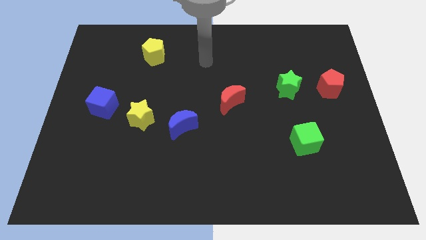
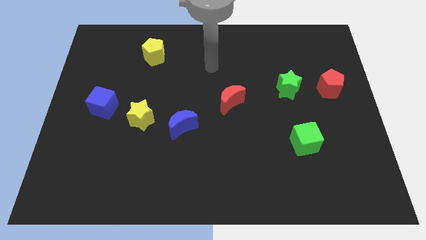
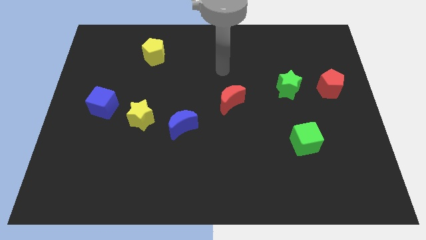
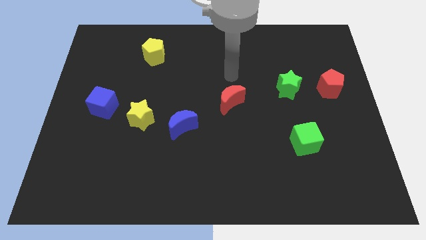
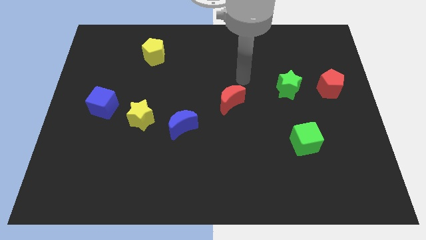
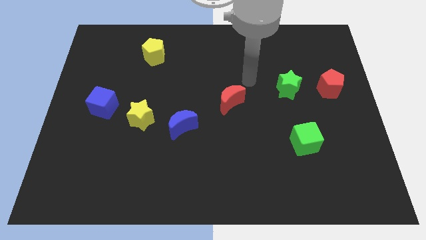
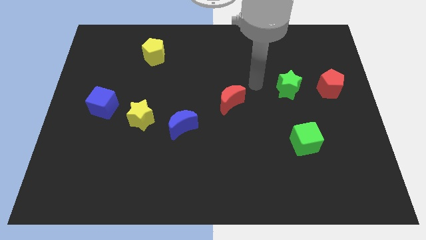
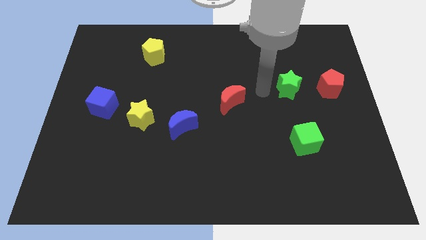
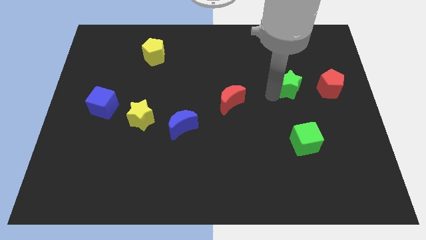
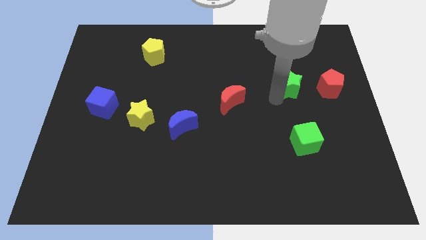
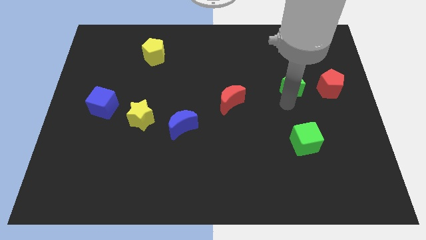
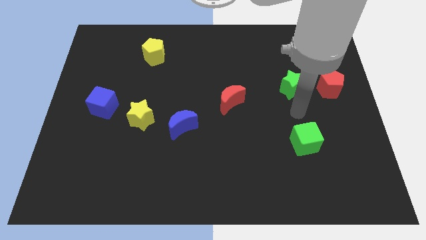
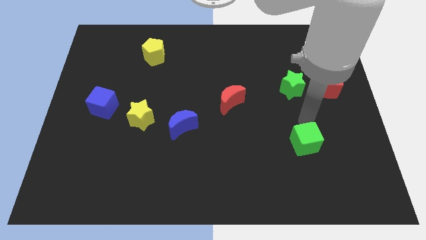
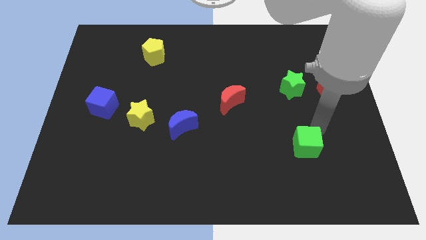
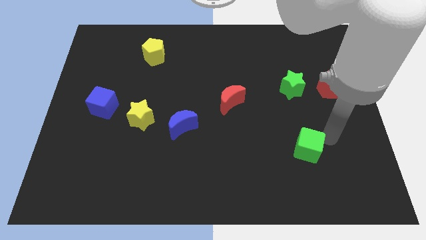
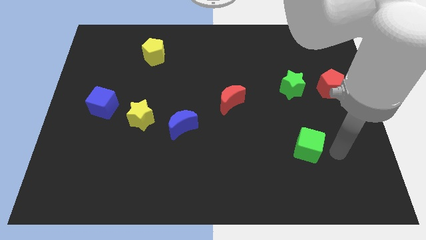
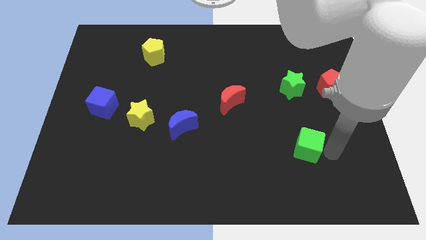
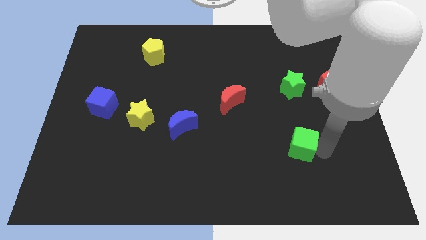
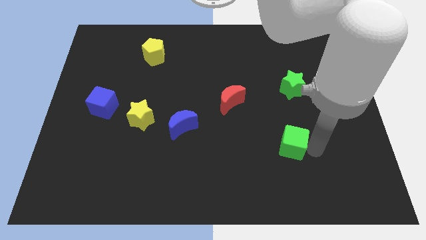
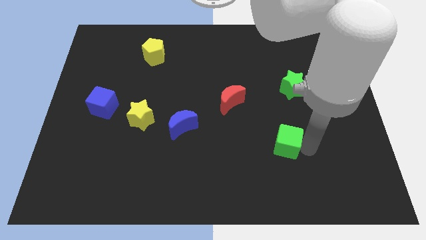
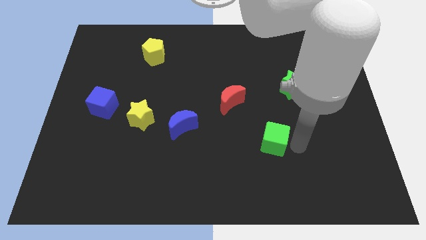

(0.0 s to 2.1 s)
slide the green cube a little to the left

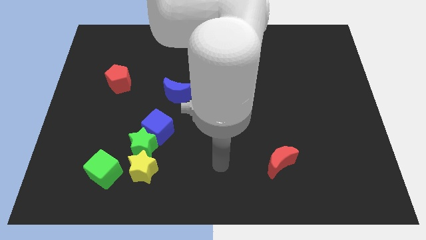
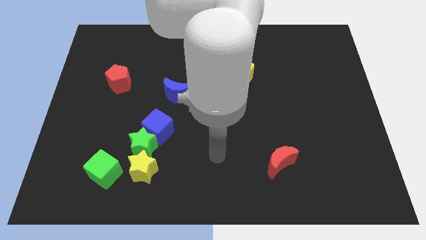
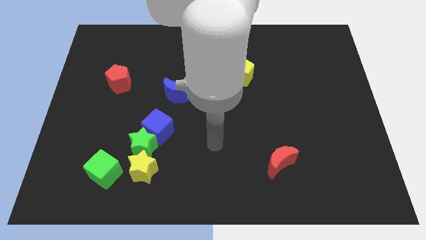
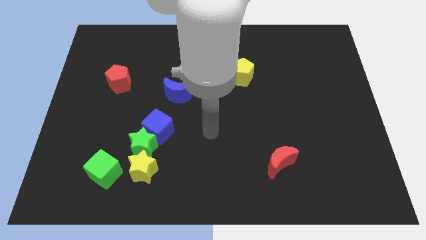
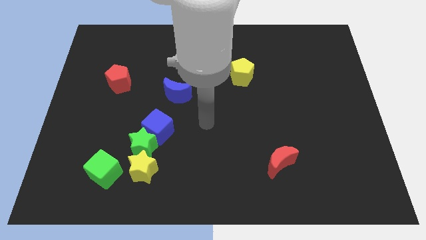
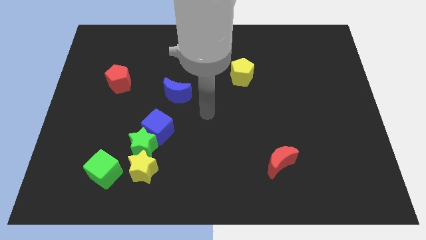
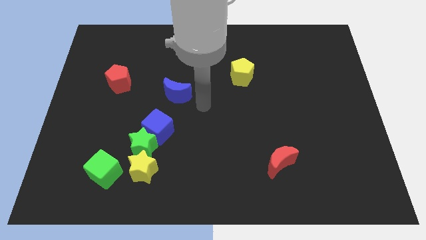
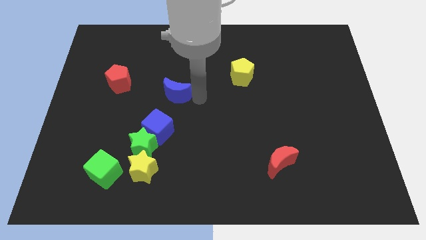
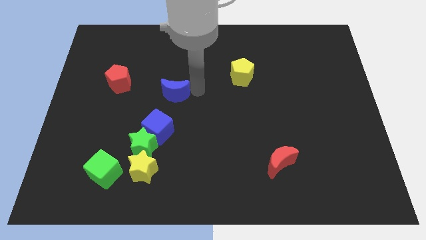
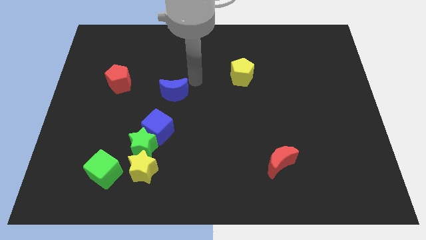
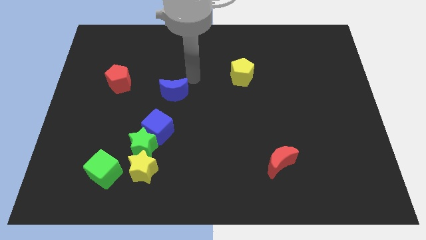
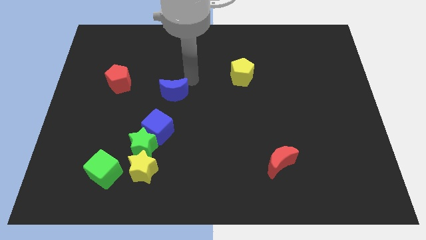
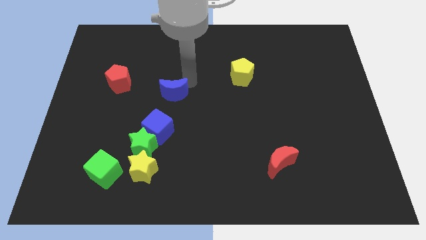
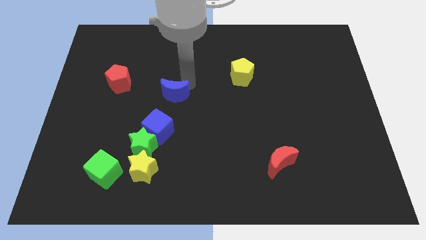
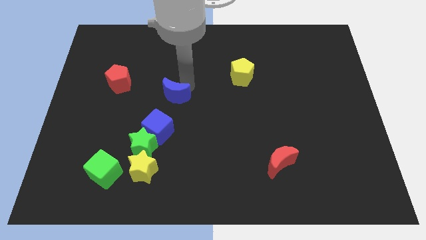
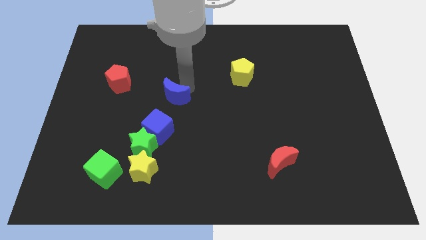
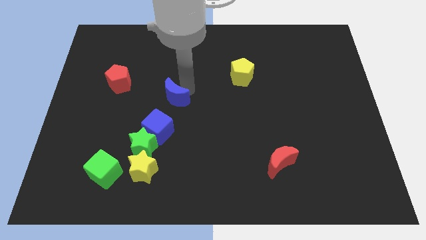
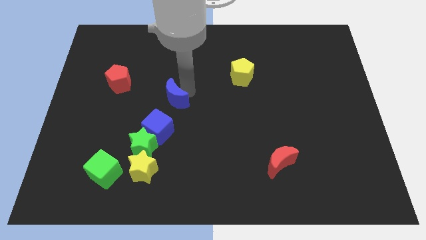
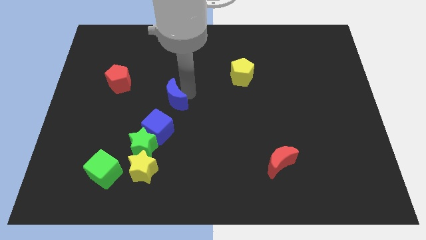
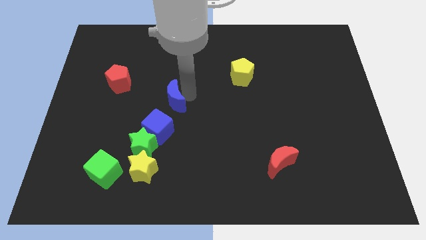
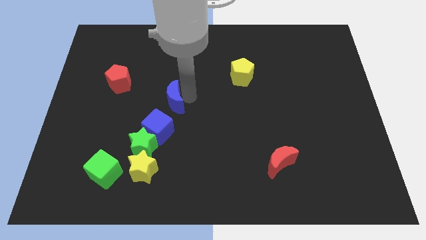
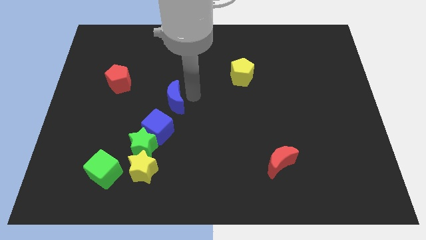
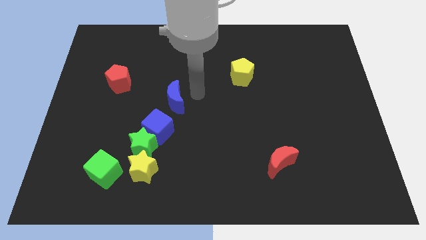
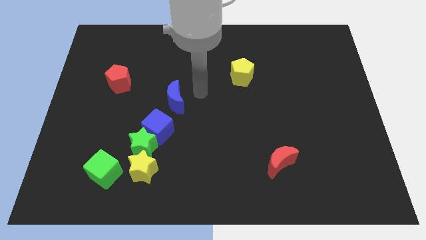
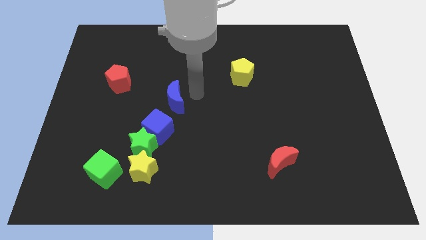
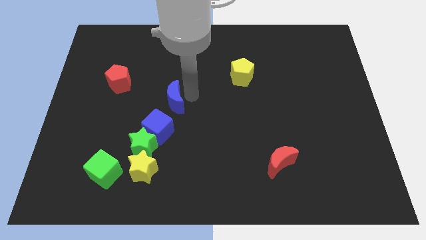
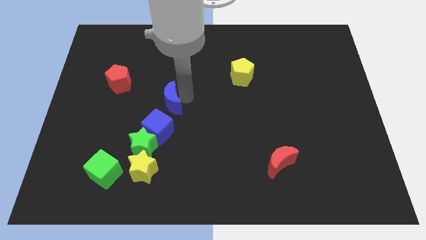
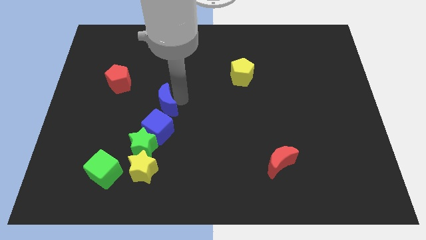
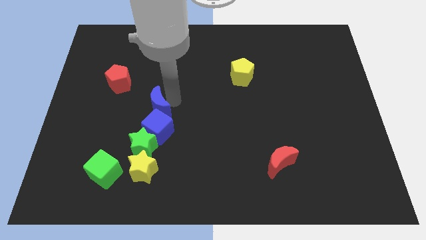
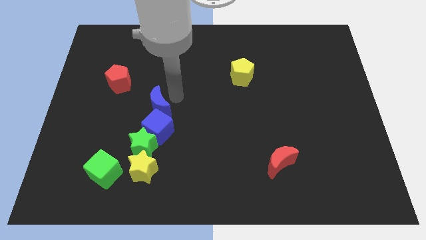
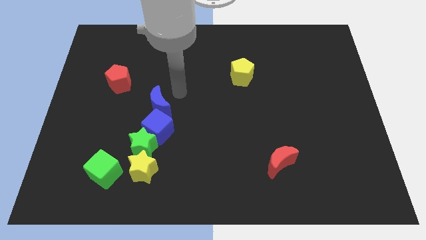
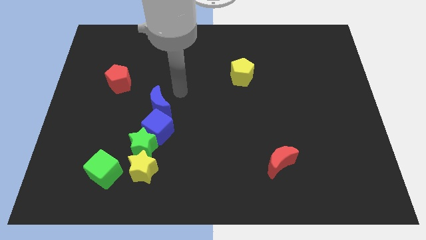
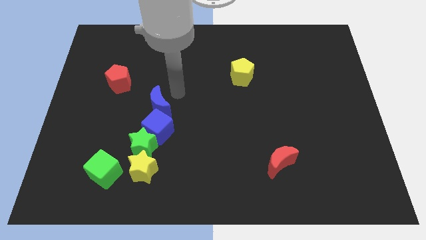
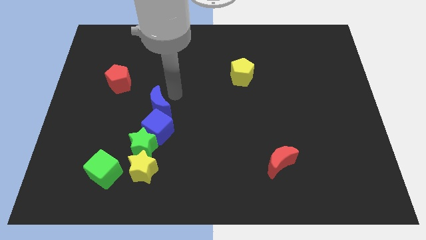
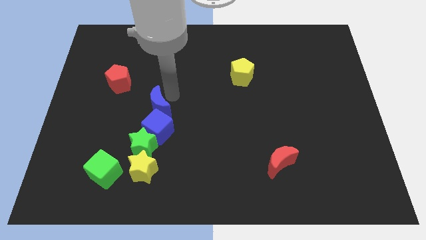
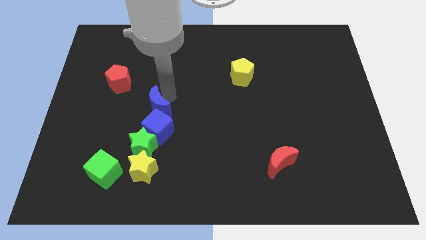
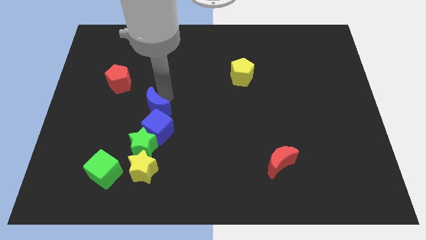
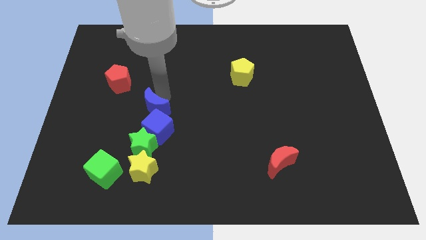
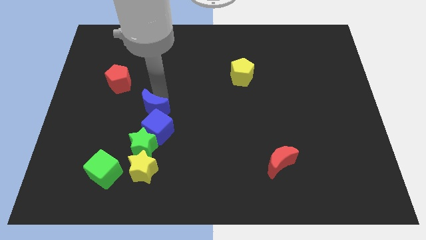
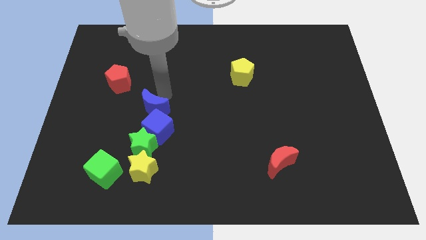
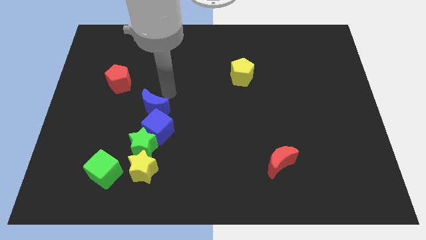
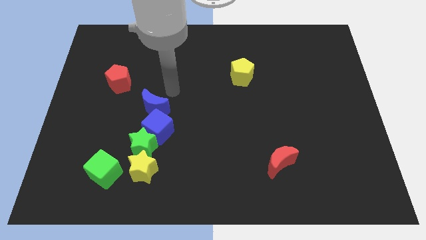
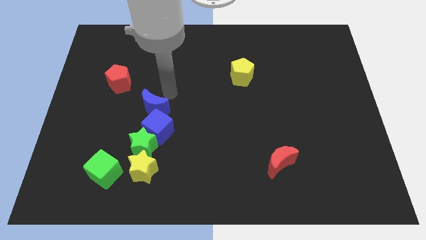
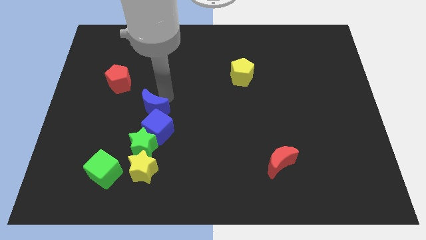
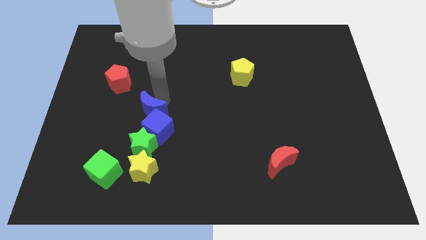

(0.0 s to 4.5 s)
push the blue moon downwards and then to the left slightly

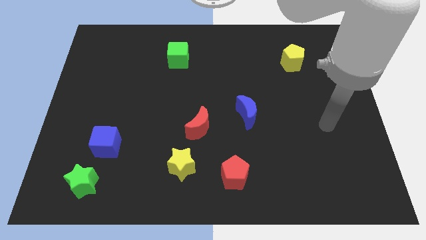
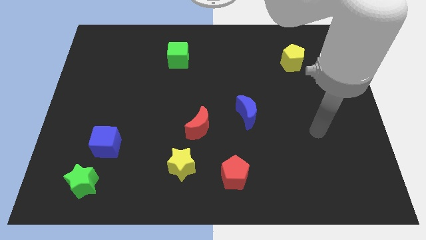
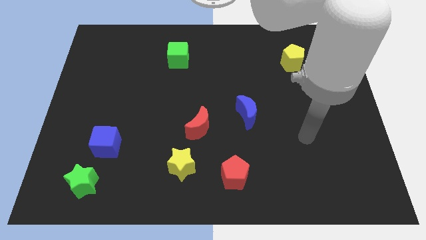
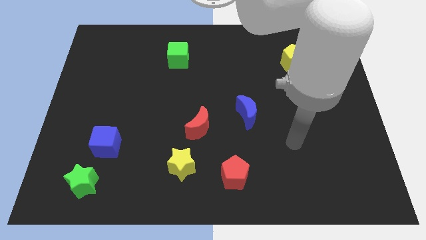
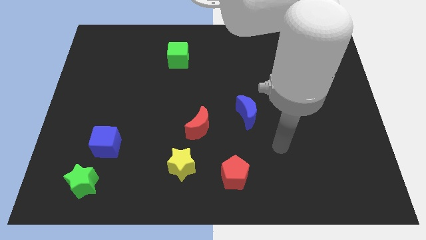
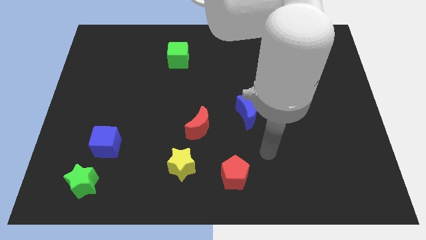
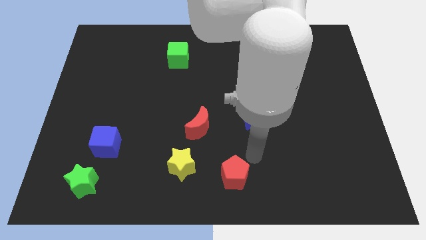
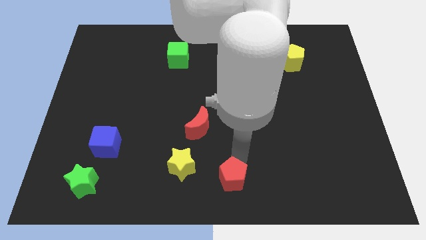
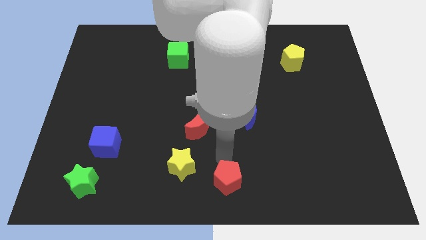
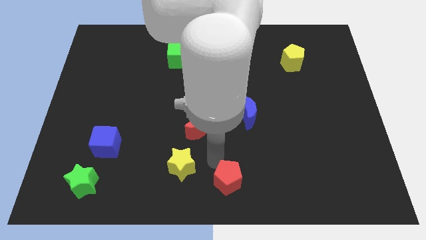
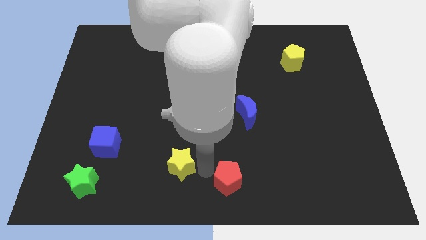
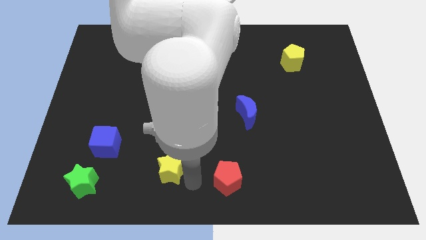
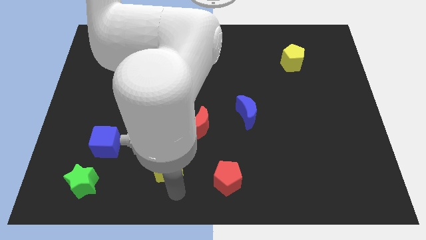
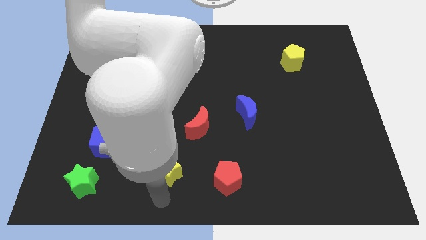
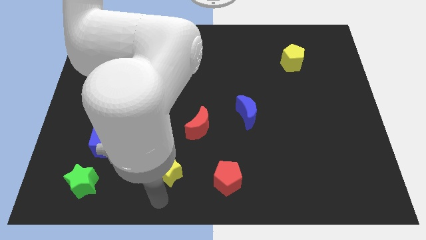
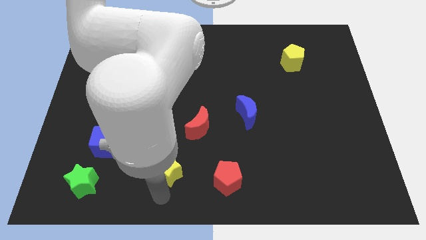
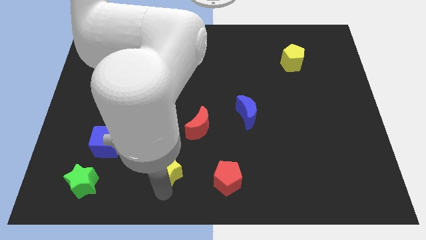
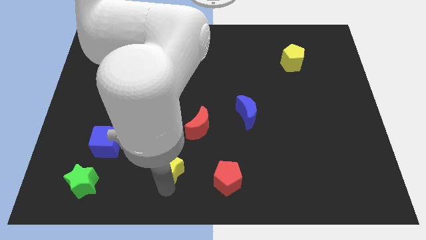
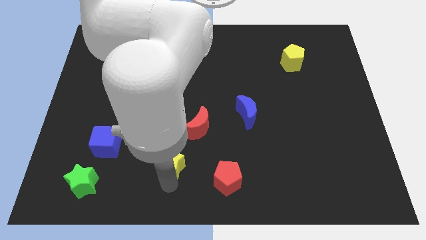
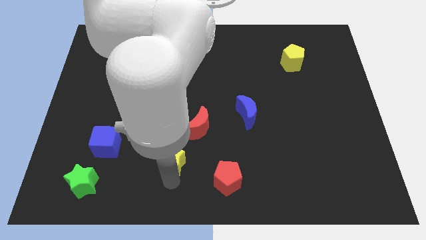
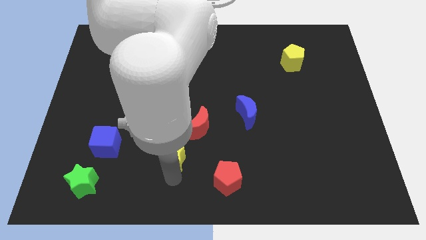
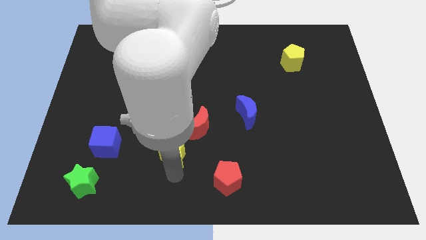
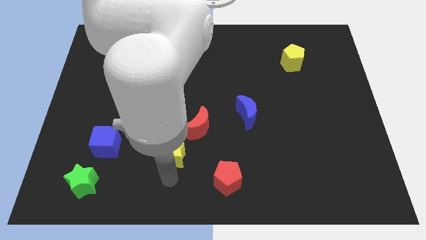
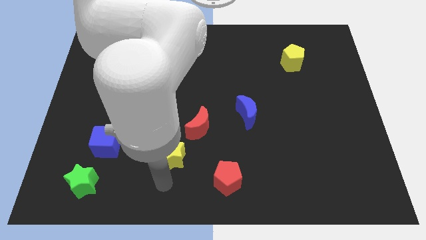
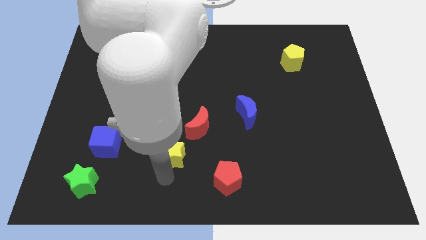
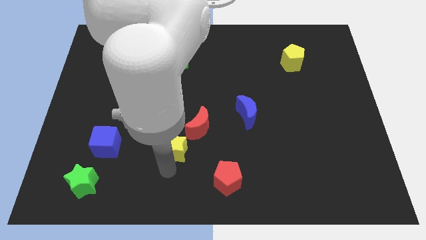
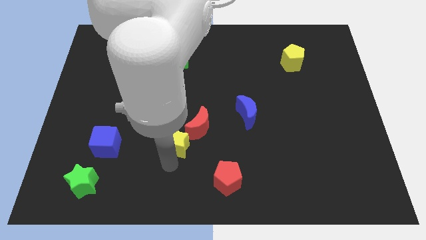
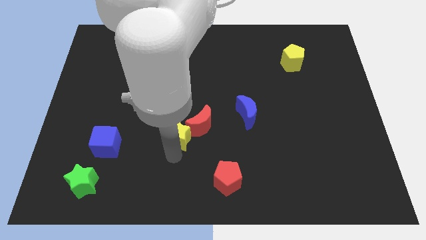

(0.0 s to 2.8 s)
slide the yellow star slightly up
